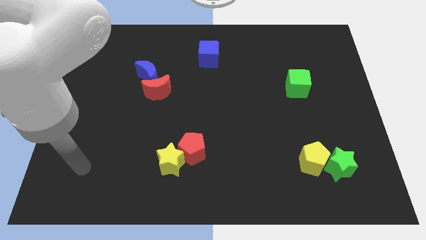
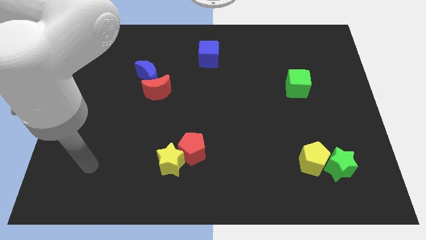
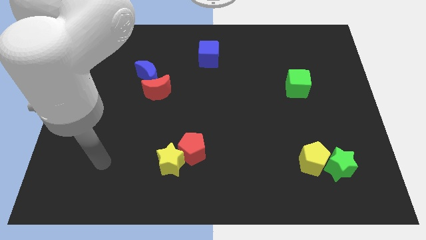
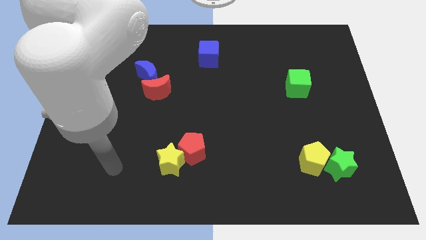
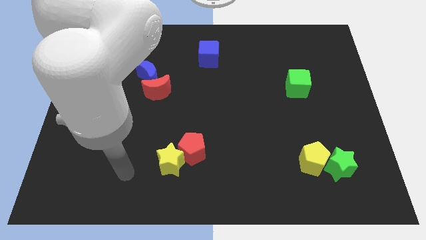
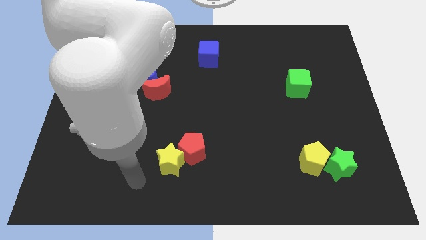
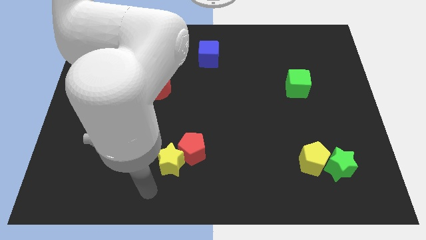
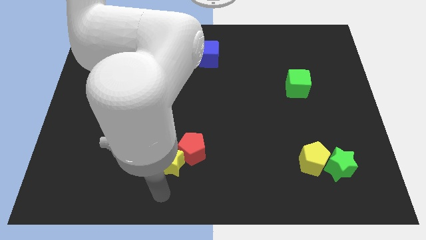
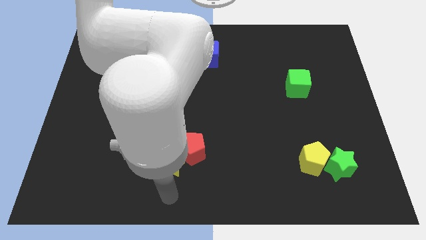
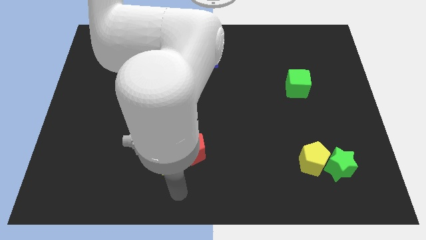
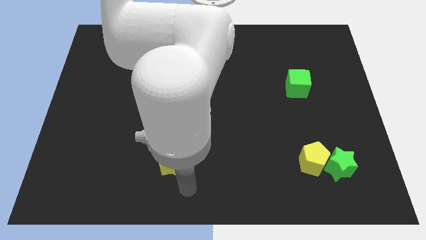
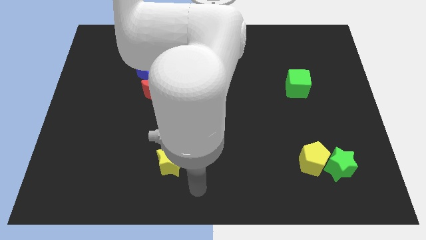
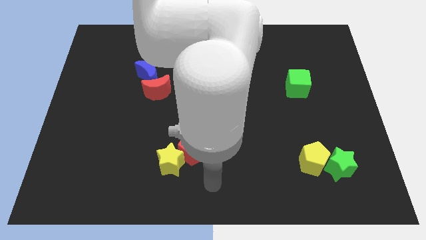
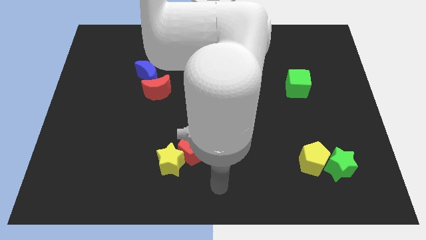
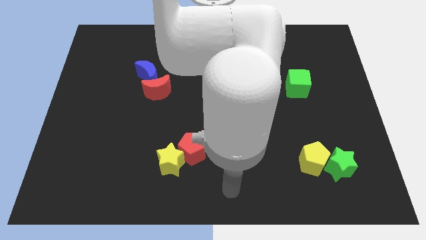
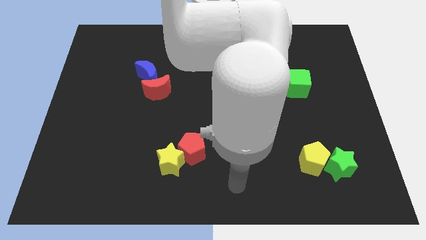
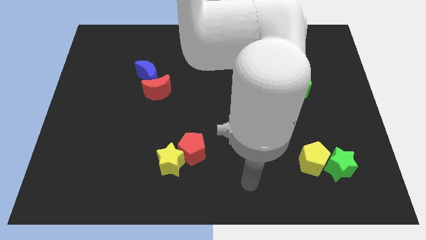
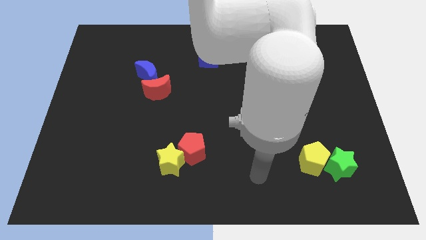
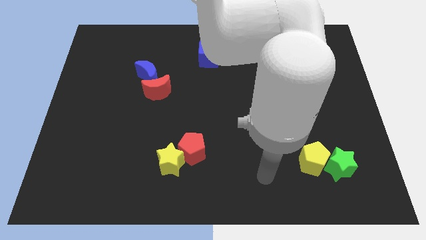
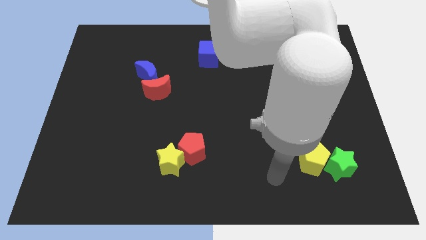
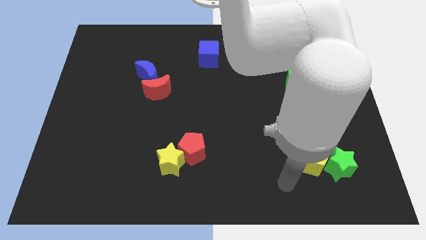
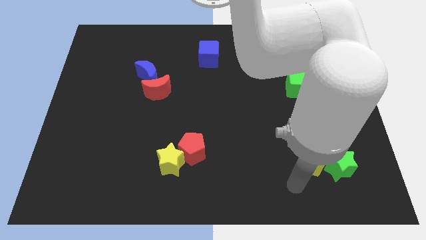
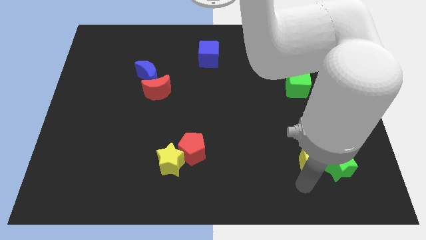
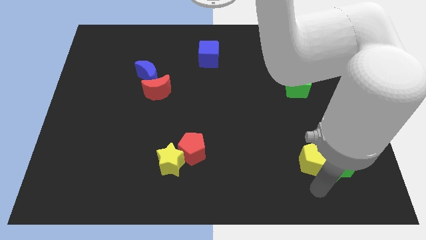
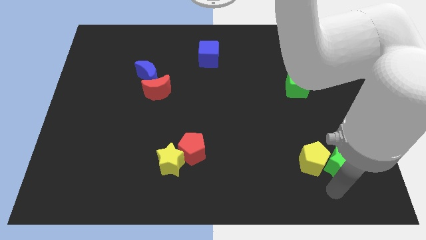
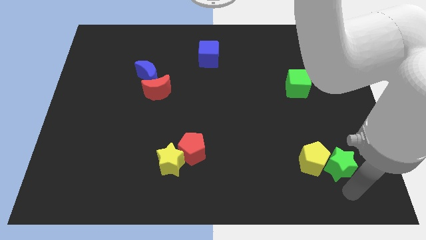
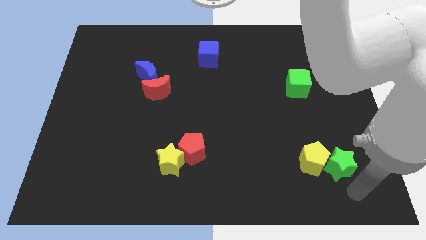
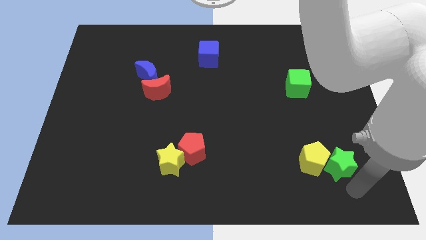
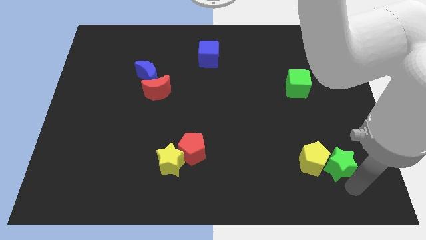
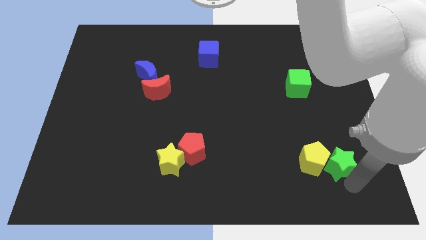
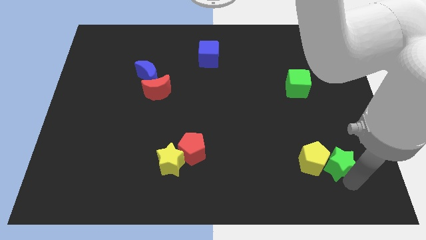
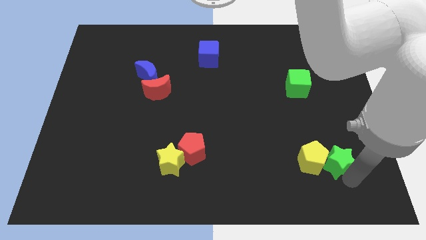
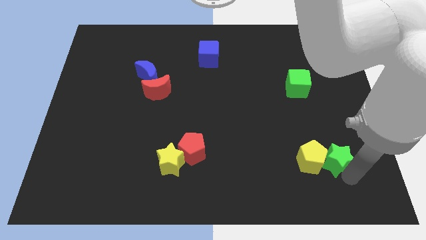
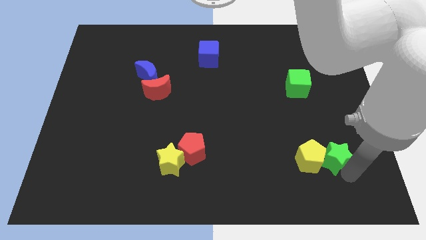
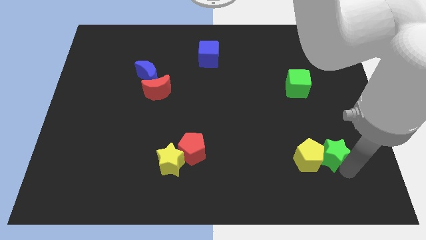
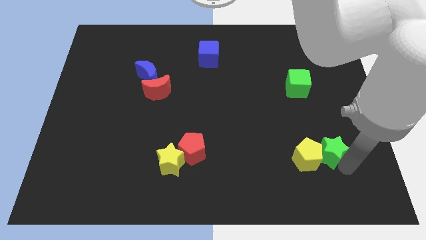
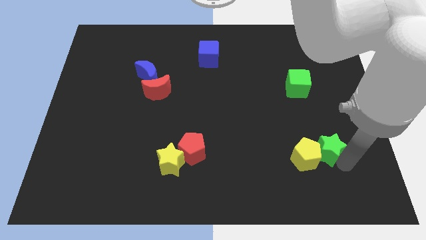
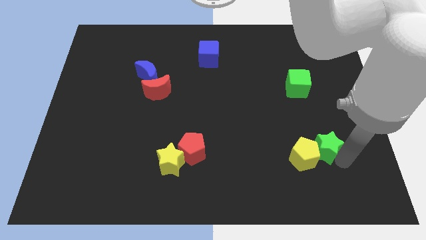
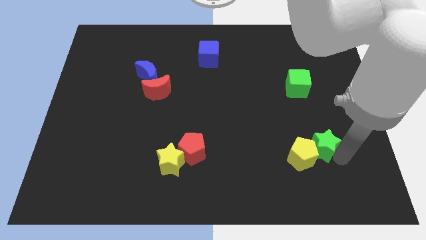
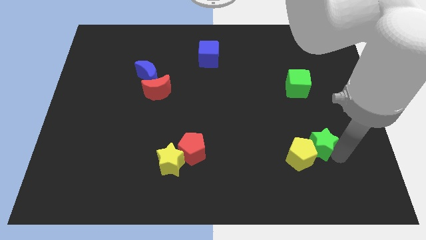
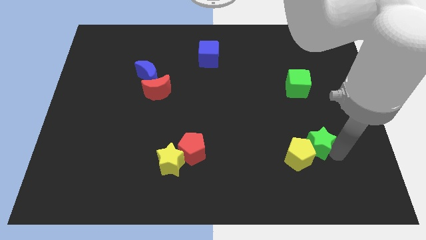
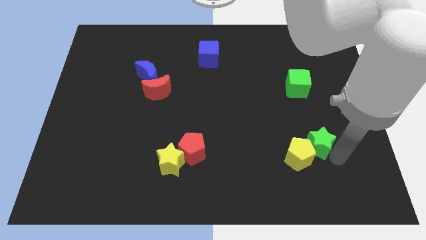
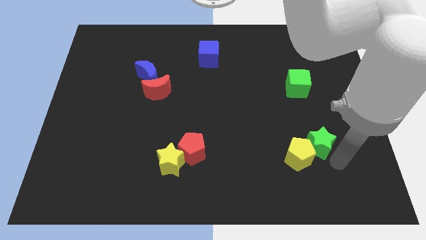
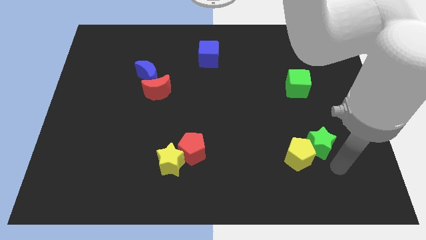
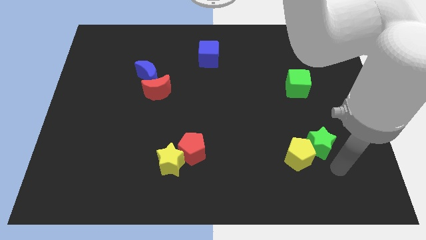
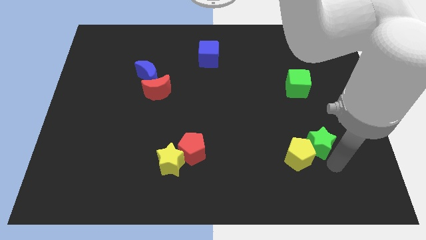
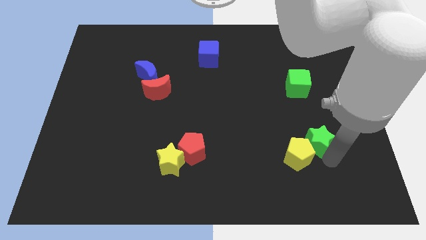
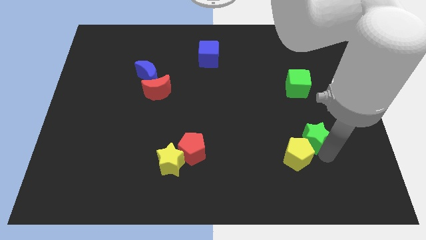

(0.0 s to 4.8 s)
slide the green star diagonally upwards and left a little bit

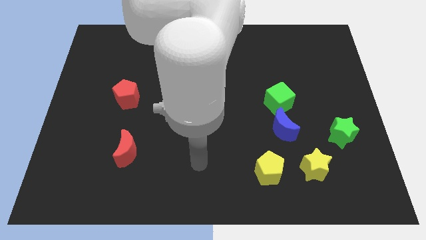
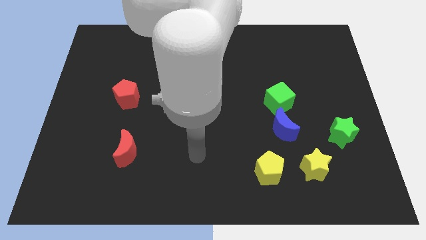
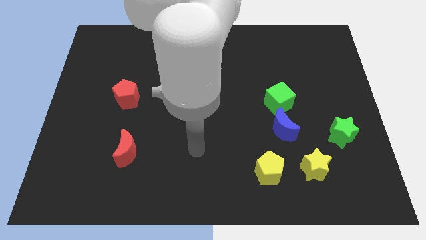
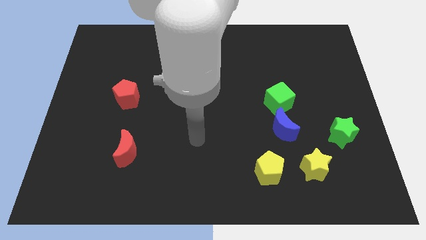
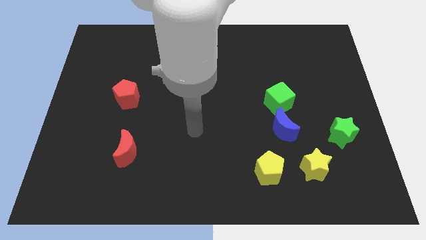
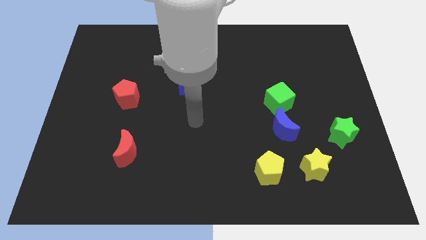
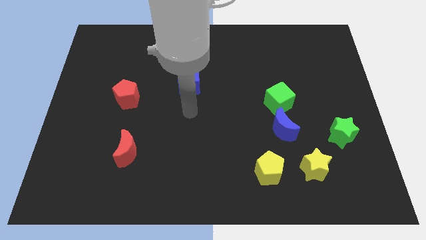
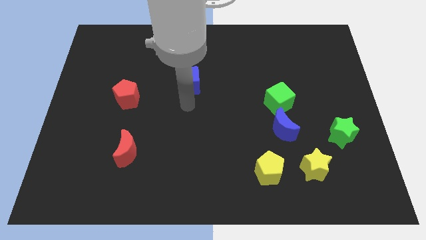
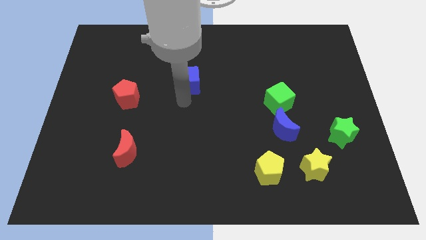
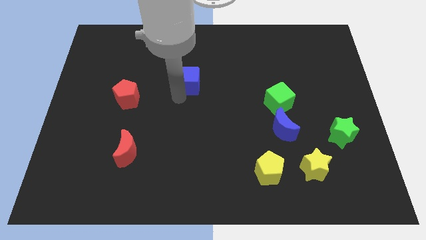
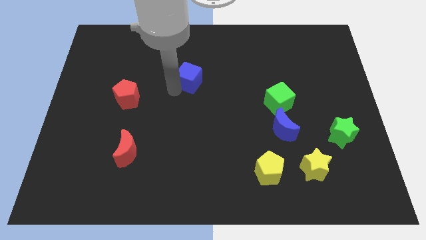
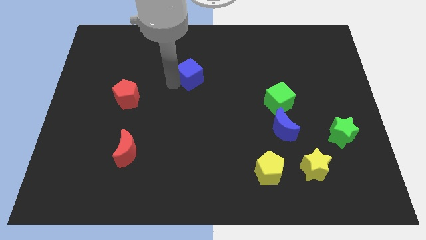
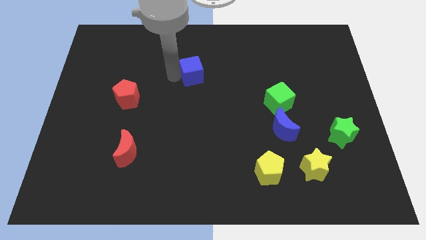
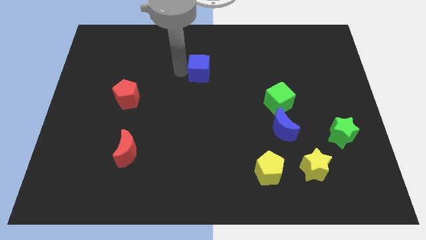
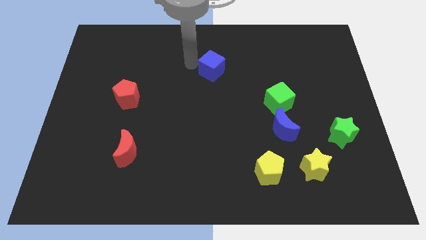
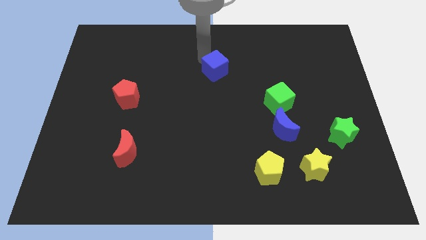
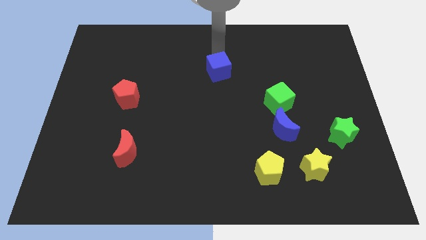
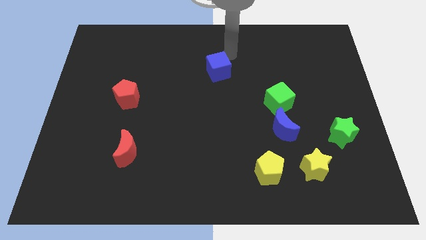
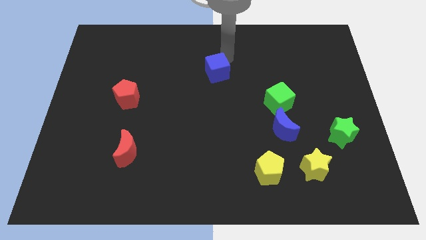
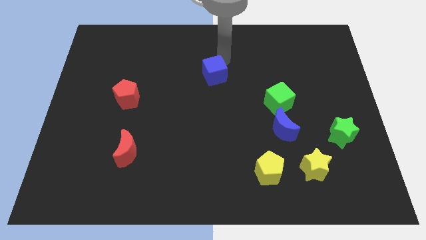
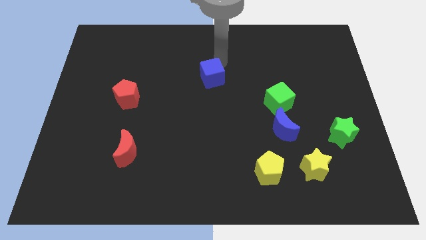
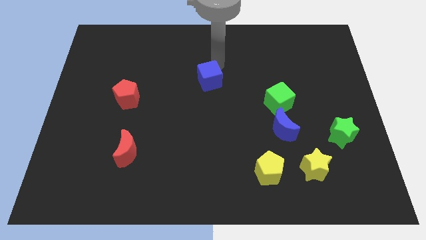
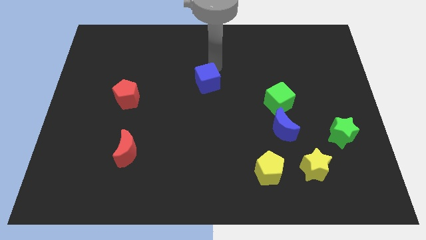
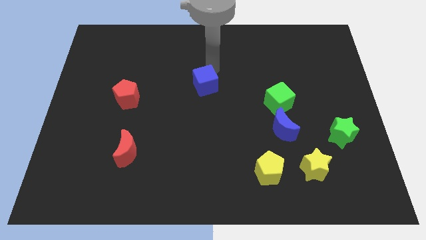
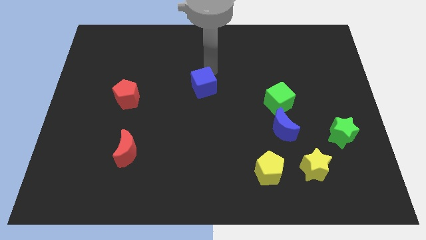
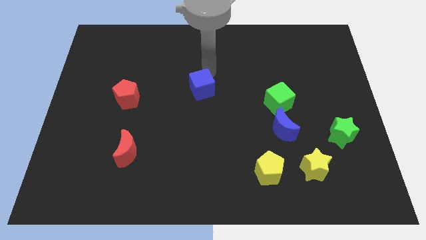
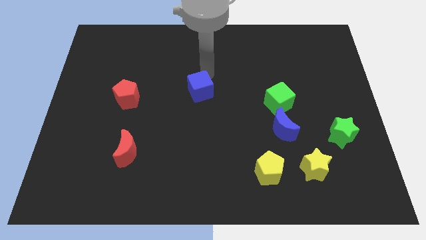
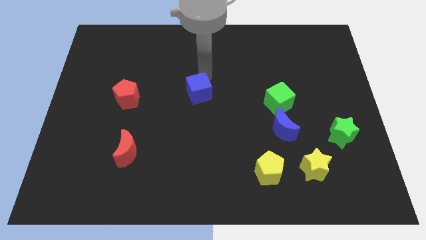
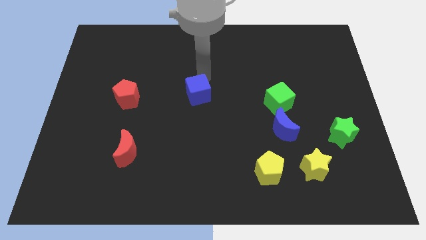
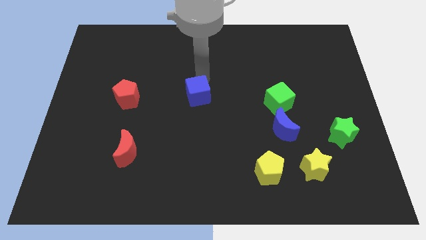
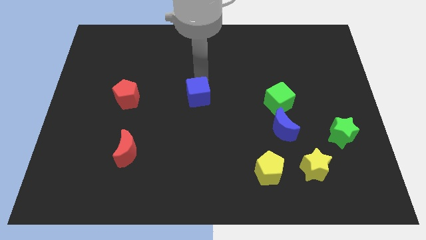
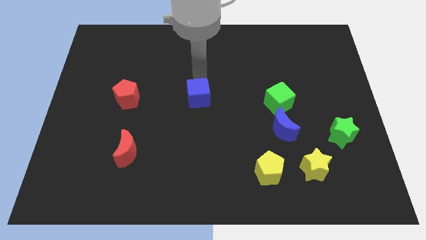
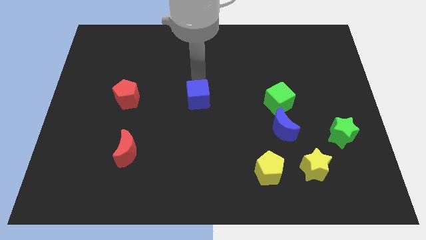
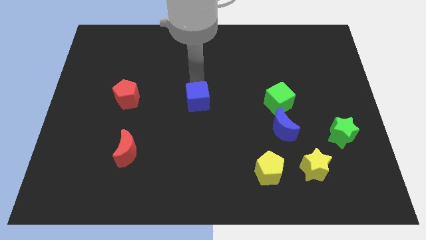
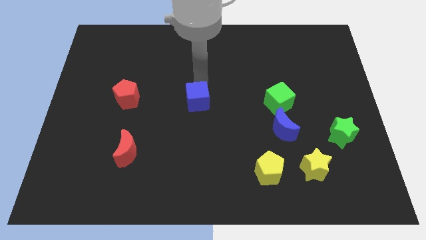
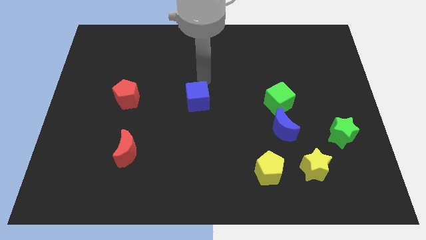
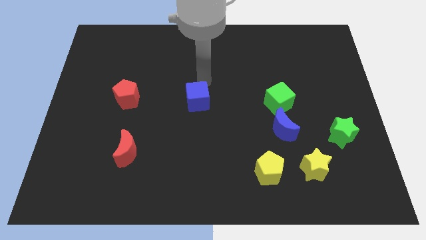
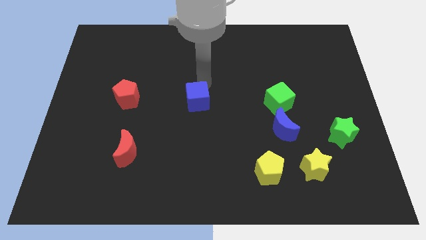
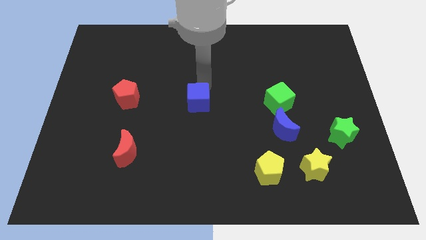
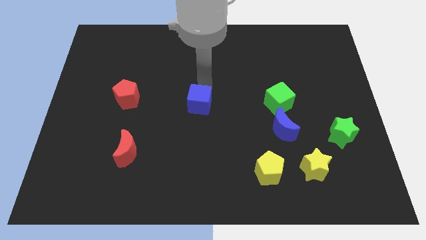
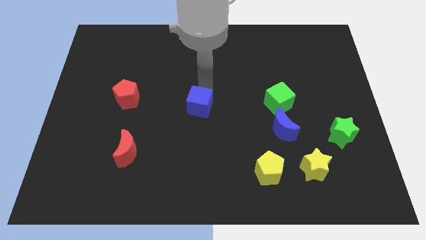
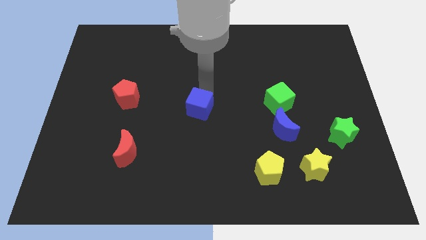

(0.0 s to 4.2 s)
move the blue cube a little bit downwards
